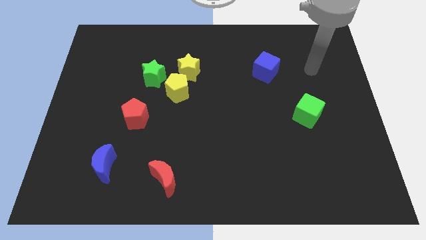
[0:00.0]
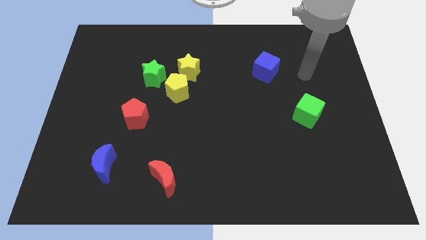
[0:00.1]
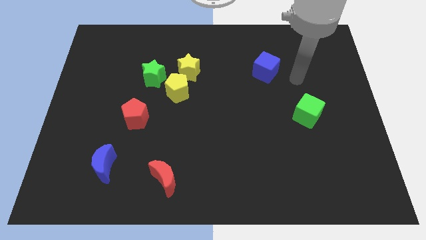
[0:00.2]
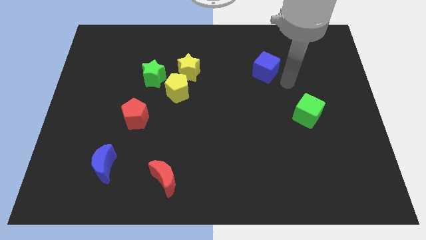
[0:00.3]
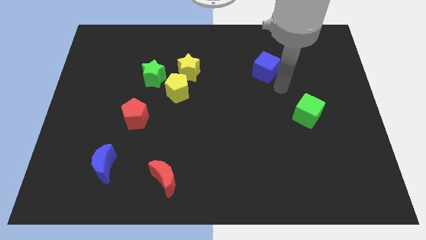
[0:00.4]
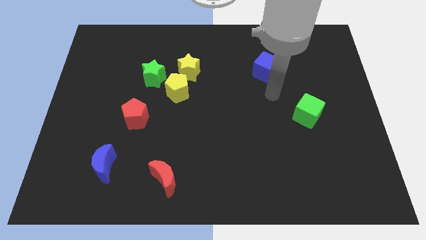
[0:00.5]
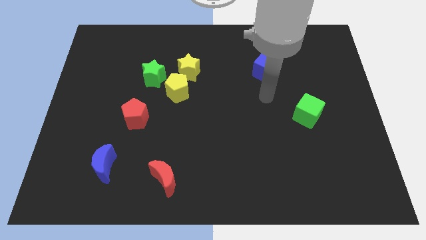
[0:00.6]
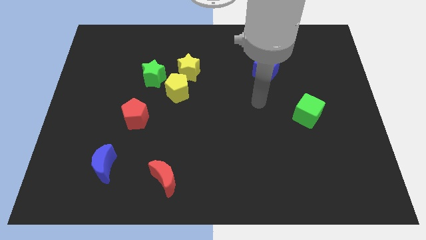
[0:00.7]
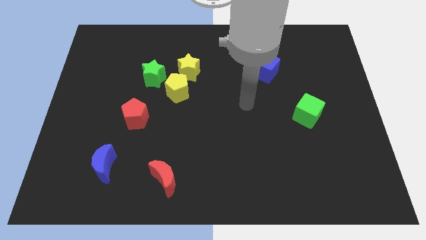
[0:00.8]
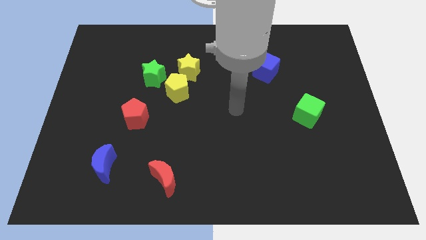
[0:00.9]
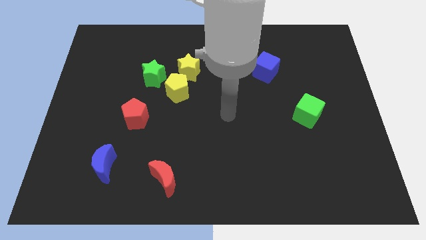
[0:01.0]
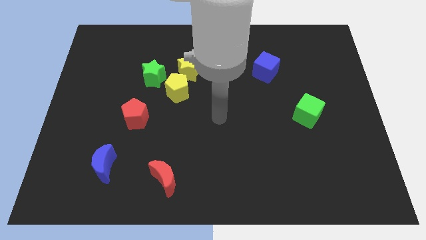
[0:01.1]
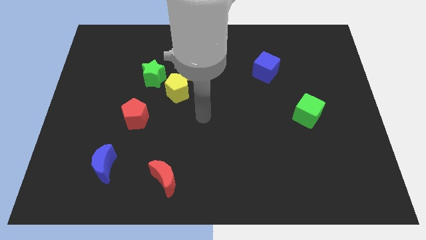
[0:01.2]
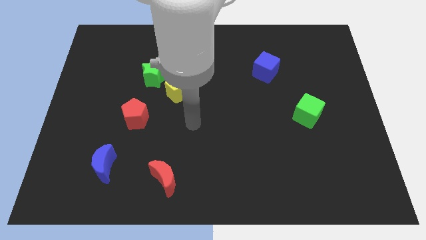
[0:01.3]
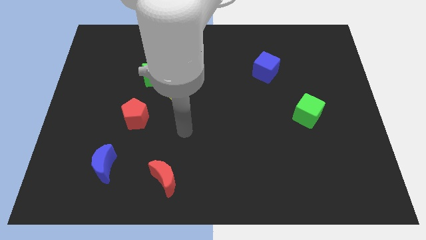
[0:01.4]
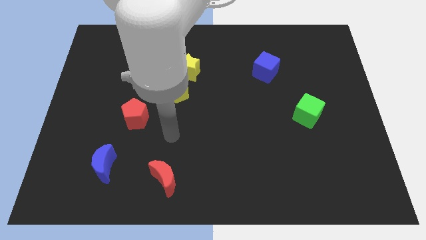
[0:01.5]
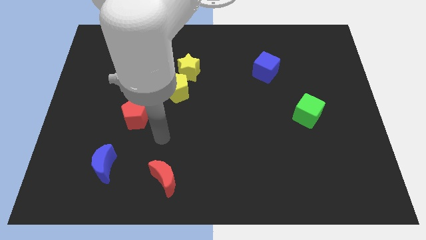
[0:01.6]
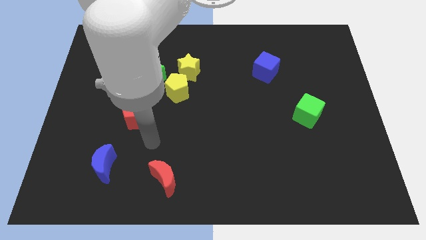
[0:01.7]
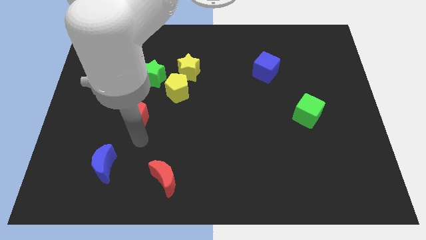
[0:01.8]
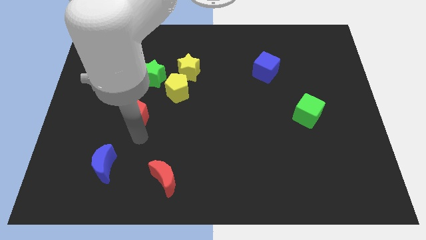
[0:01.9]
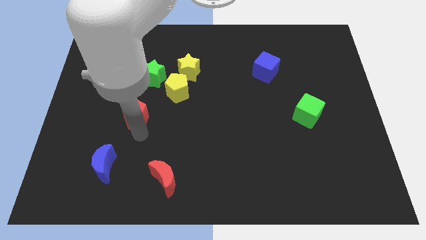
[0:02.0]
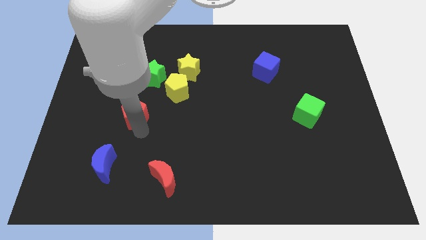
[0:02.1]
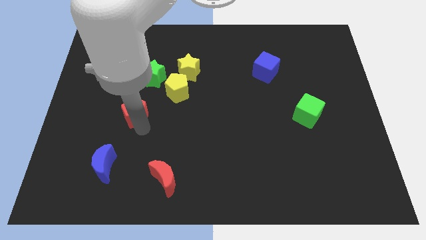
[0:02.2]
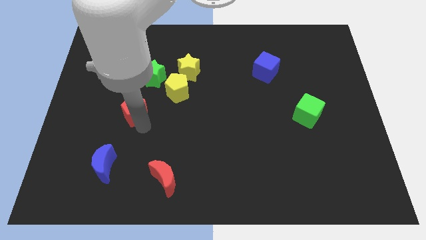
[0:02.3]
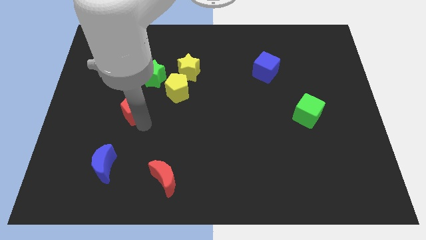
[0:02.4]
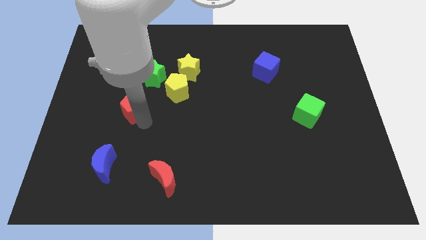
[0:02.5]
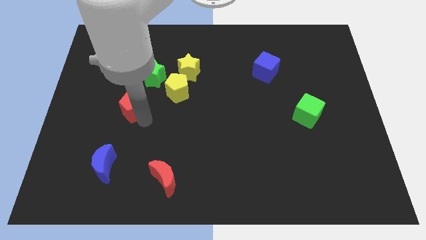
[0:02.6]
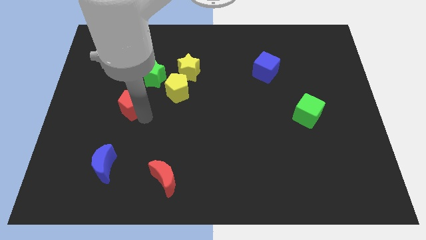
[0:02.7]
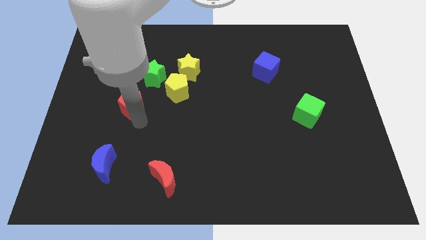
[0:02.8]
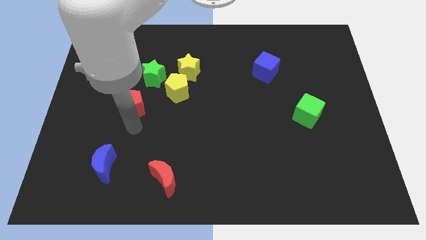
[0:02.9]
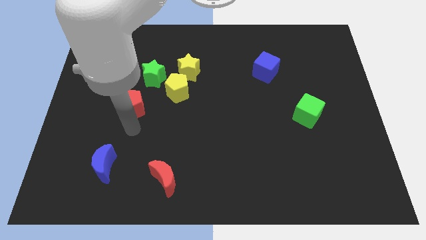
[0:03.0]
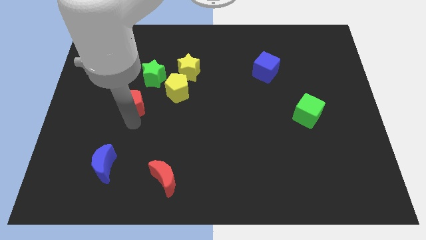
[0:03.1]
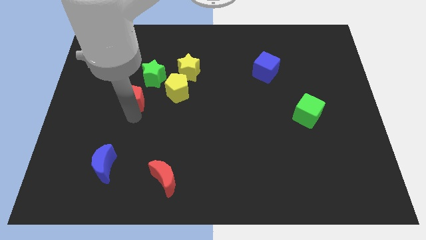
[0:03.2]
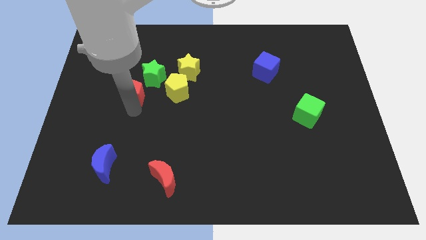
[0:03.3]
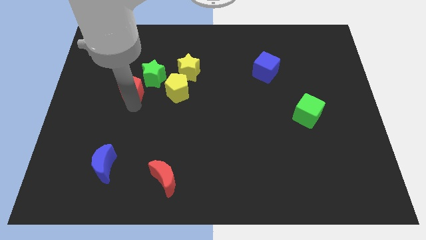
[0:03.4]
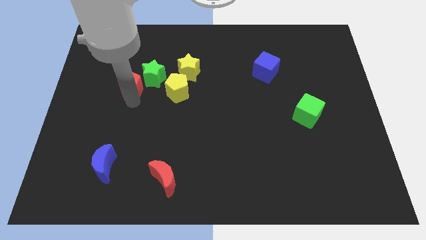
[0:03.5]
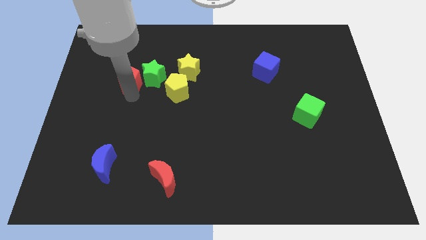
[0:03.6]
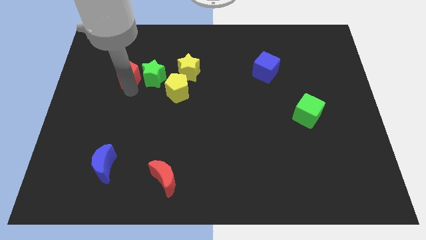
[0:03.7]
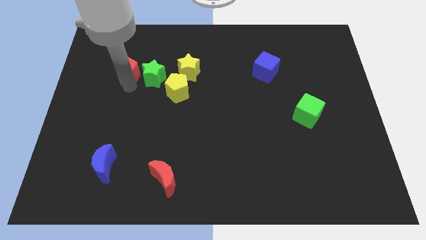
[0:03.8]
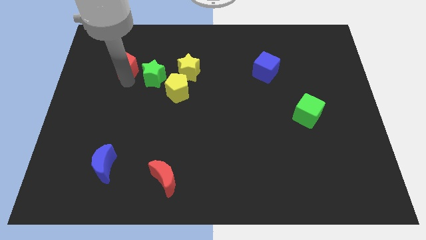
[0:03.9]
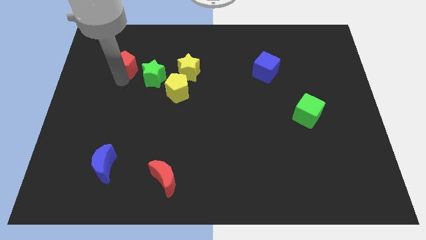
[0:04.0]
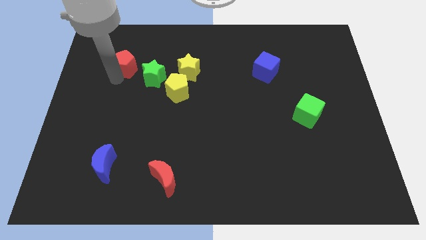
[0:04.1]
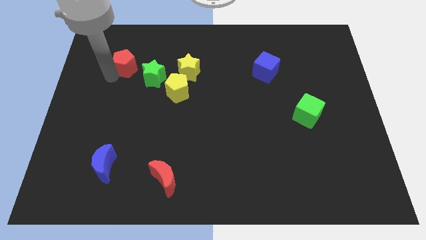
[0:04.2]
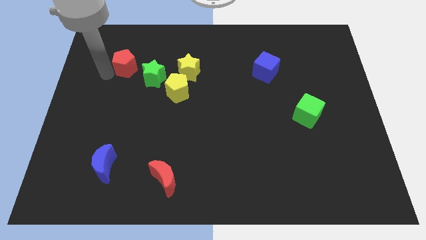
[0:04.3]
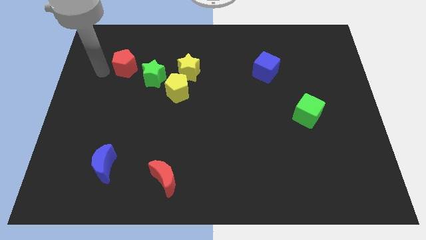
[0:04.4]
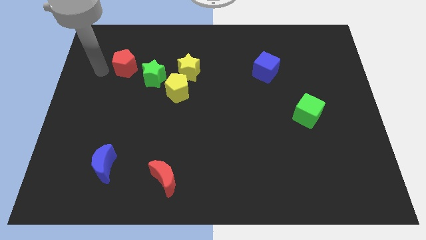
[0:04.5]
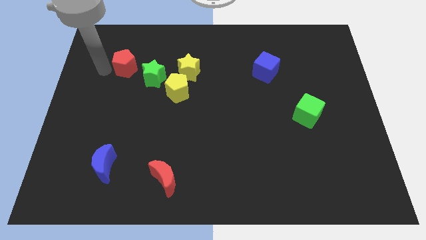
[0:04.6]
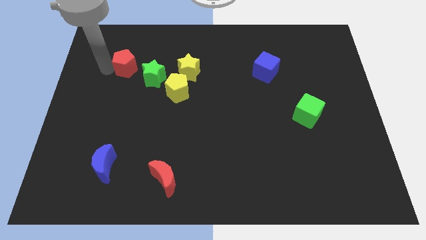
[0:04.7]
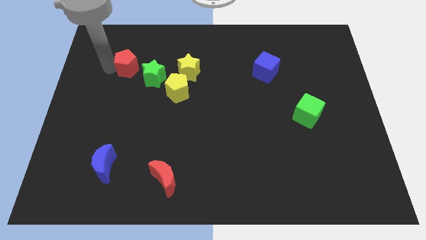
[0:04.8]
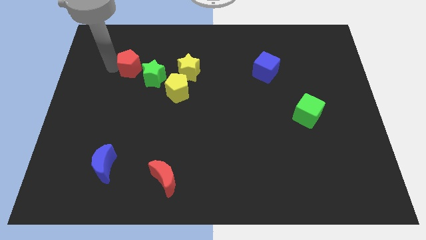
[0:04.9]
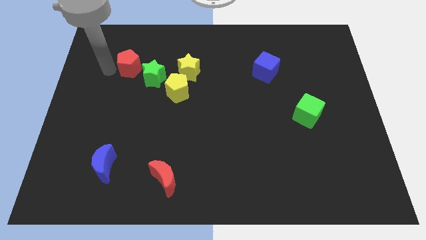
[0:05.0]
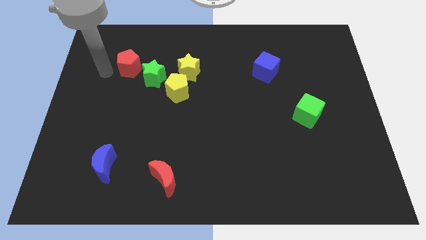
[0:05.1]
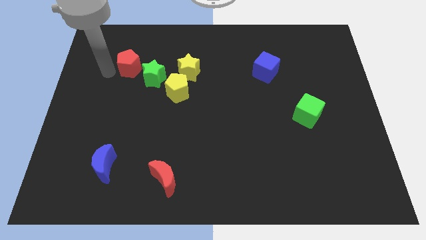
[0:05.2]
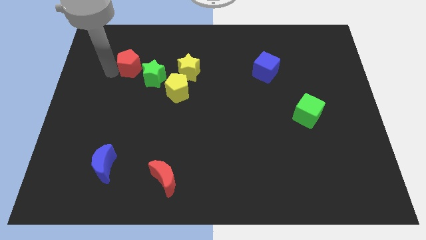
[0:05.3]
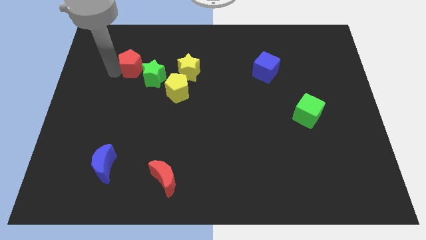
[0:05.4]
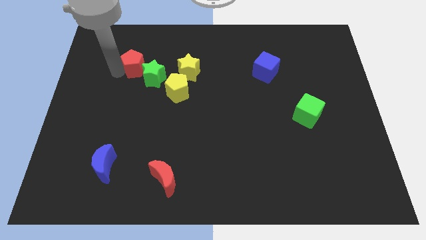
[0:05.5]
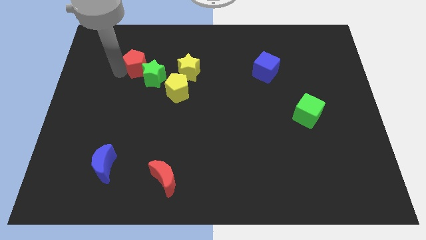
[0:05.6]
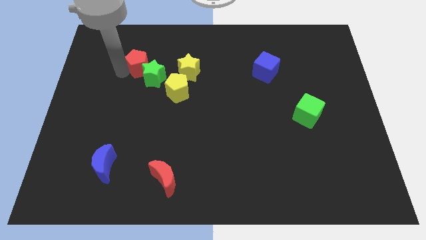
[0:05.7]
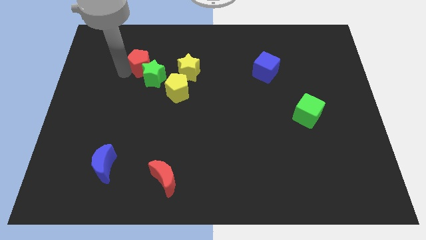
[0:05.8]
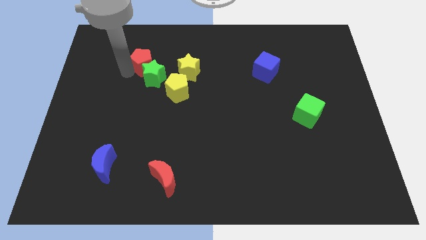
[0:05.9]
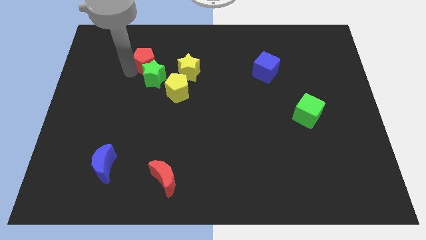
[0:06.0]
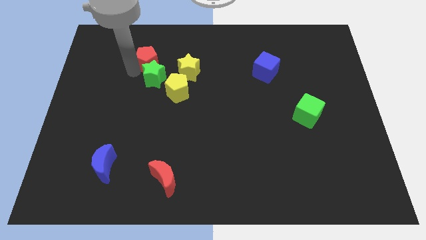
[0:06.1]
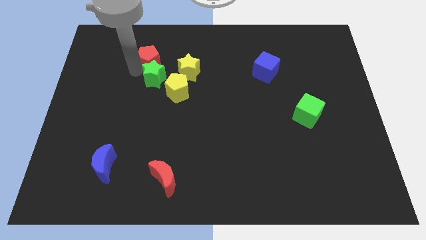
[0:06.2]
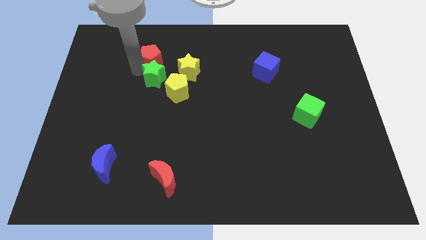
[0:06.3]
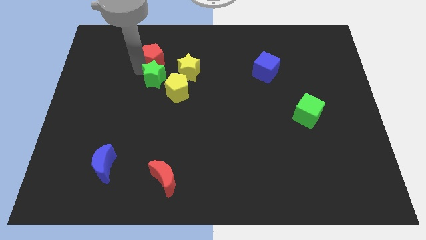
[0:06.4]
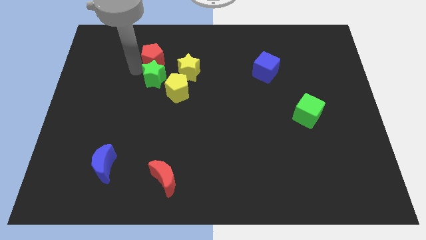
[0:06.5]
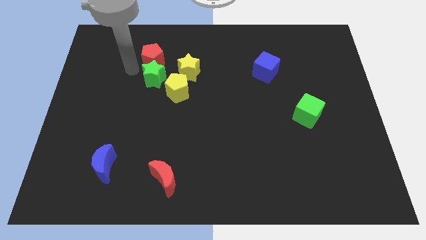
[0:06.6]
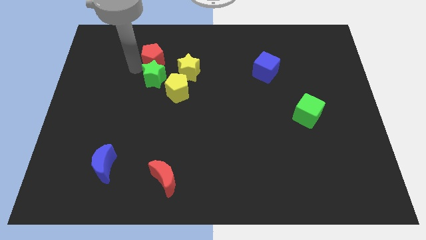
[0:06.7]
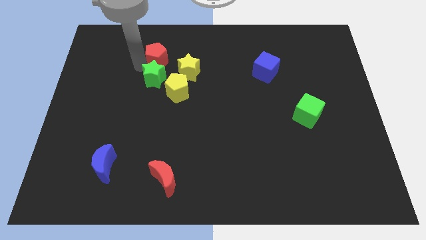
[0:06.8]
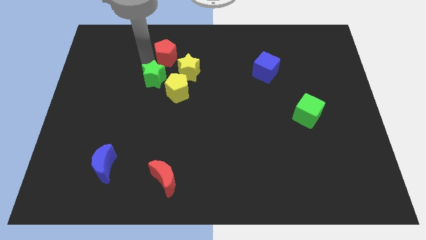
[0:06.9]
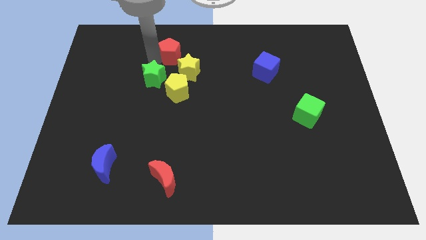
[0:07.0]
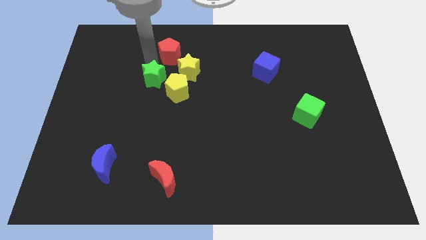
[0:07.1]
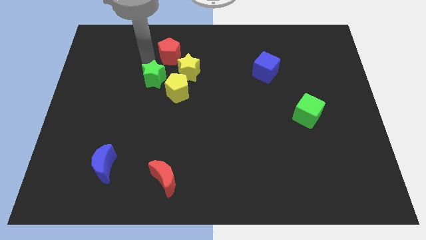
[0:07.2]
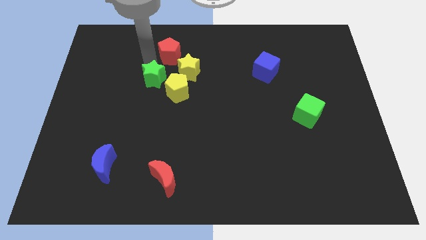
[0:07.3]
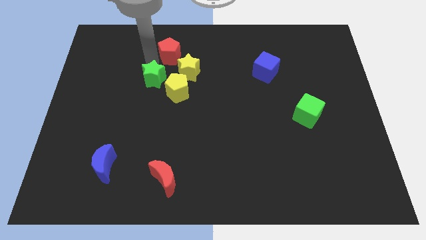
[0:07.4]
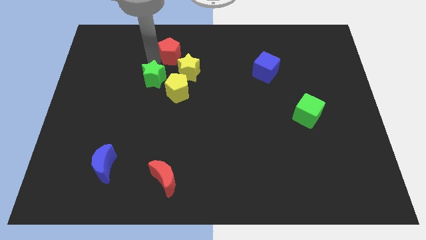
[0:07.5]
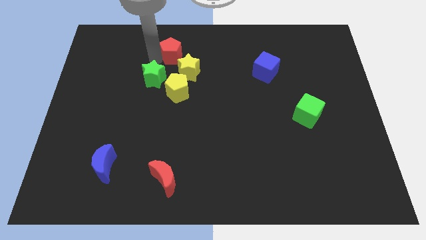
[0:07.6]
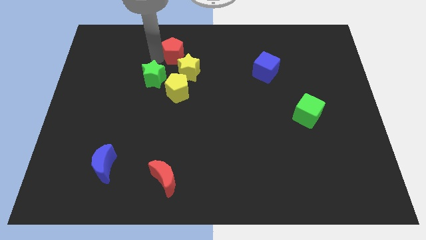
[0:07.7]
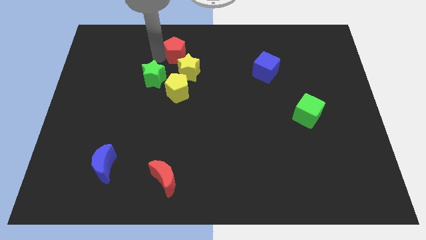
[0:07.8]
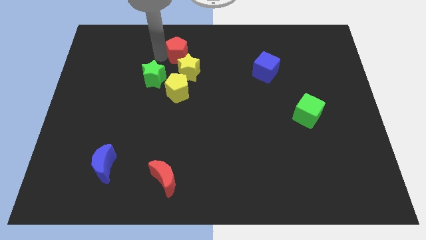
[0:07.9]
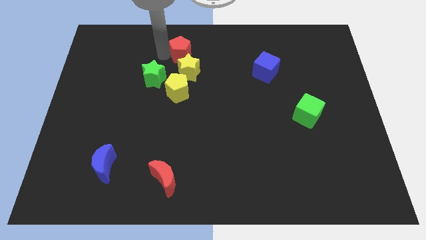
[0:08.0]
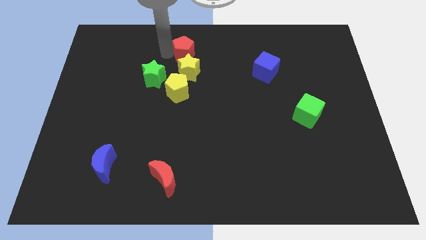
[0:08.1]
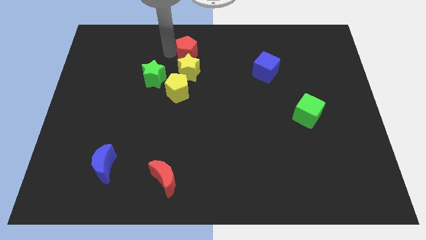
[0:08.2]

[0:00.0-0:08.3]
move the red pentagon to the top
